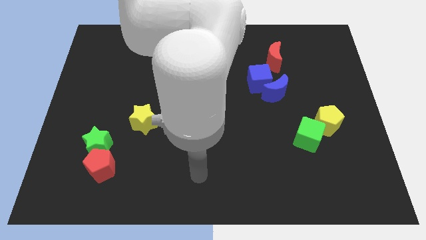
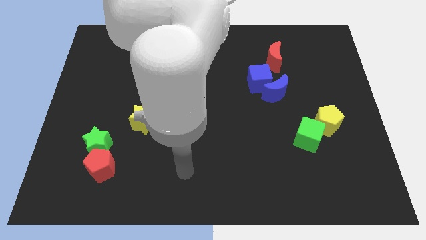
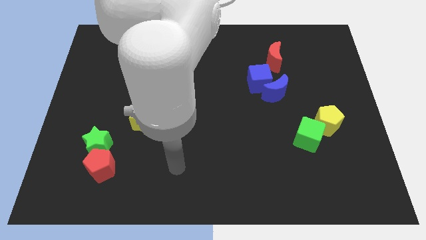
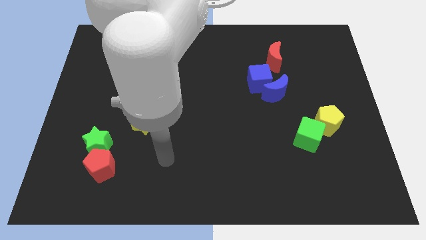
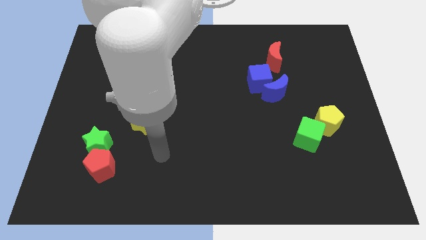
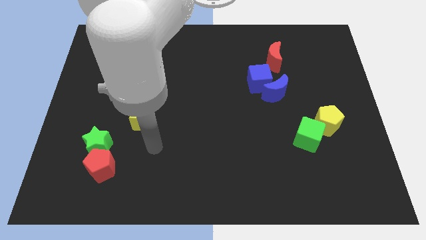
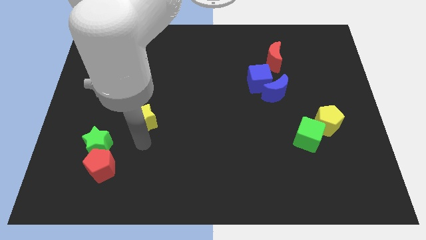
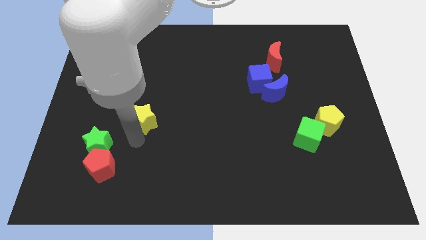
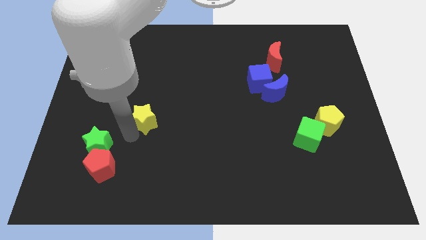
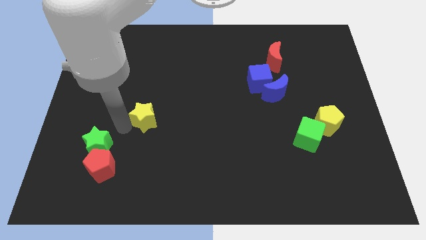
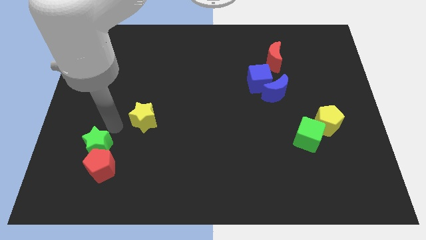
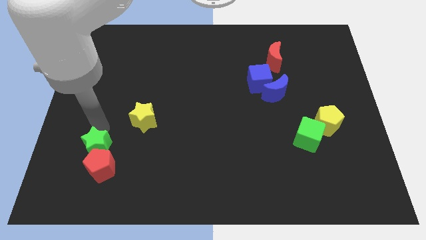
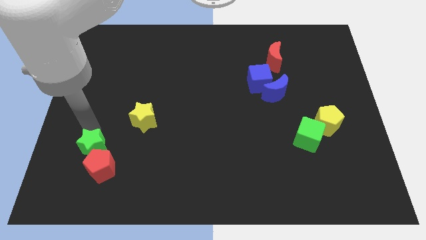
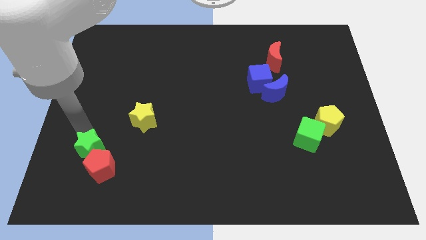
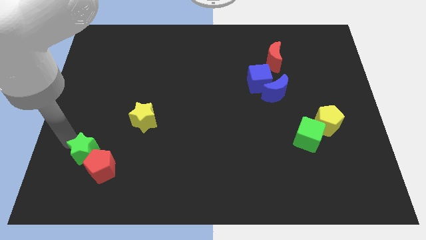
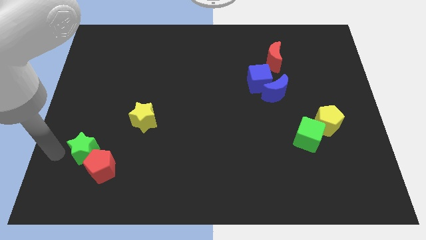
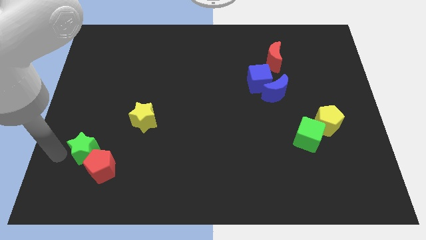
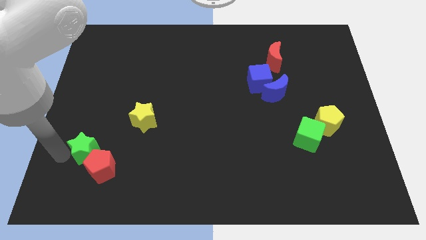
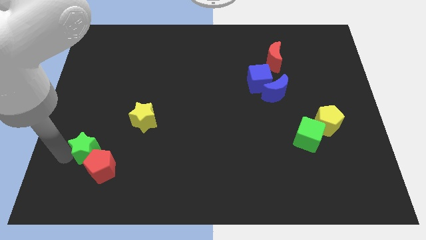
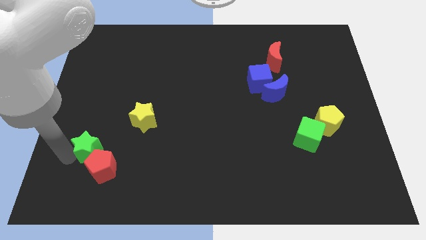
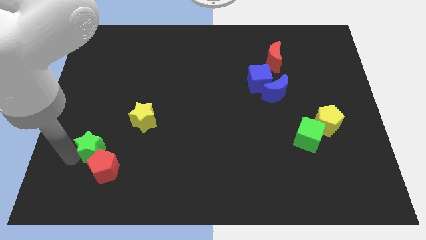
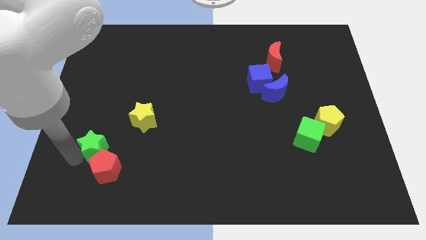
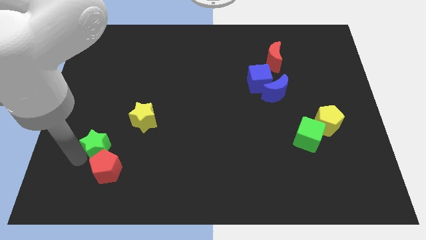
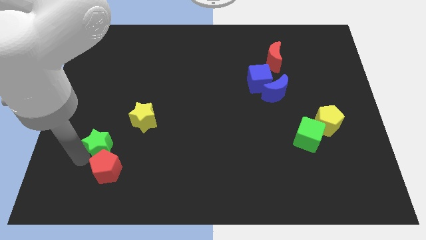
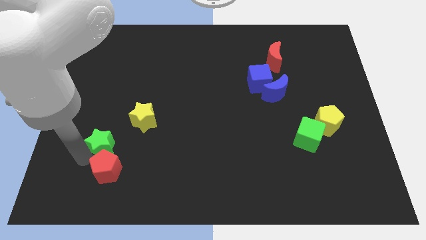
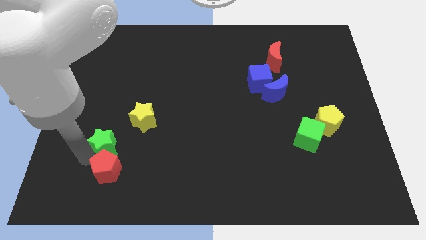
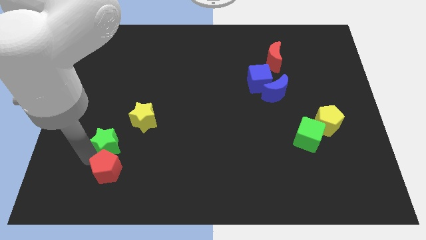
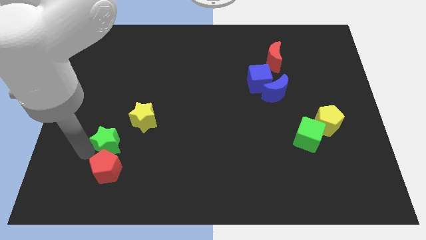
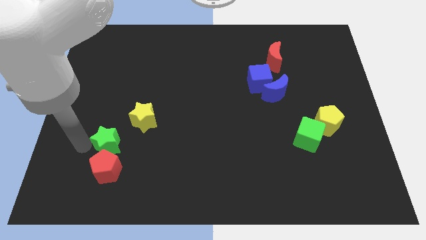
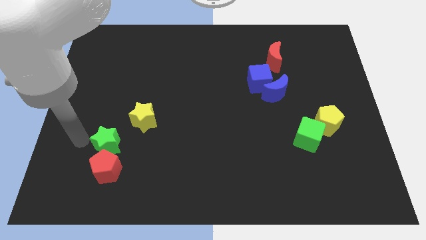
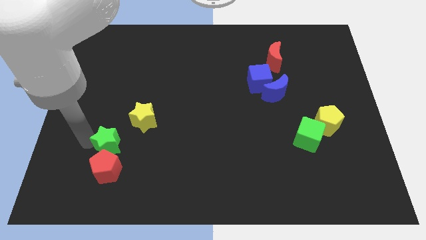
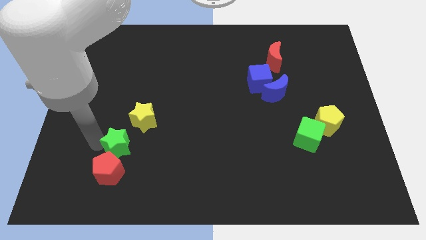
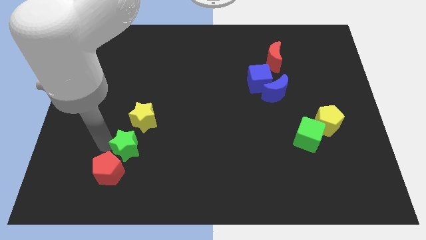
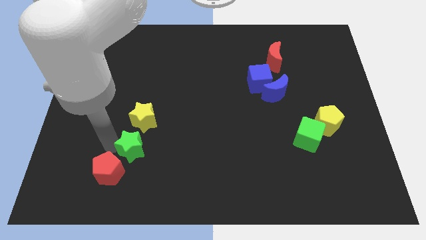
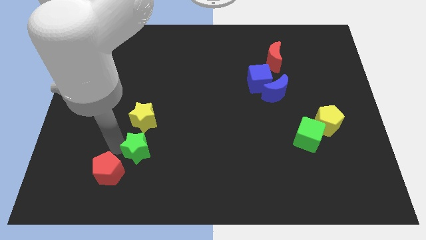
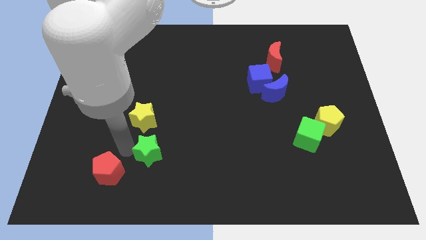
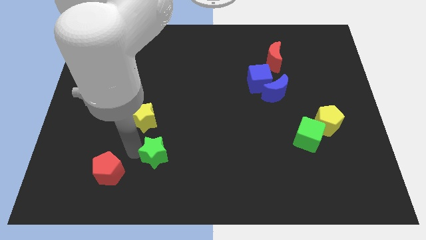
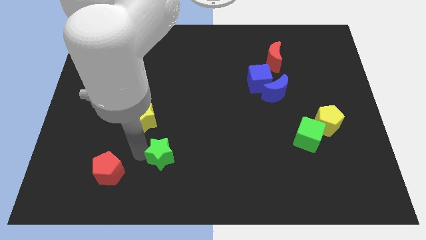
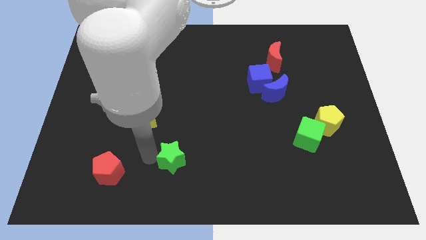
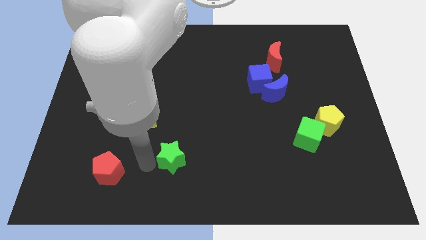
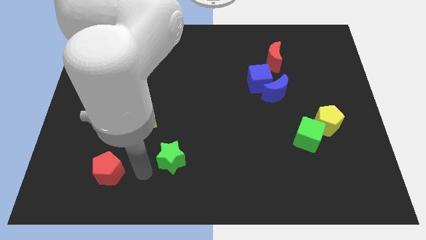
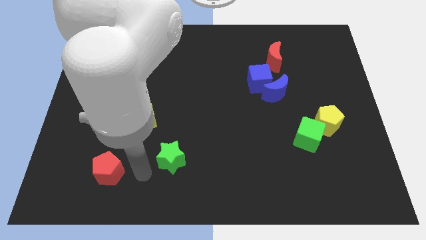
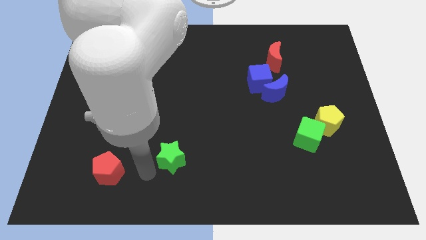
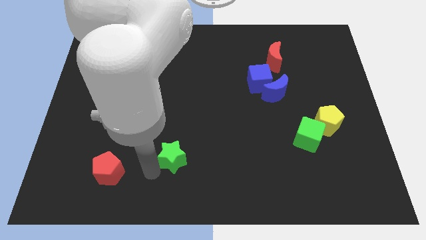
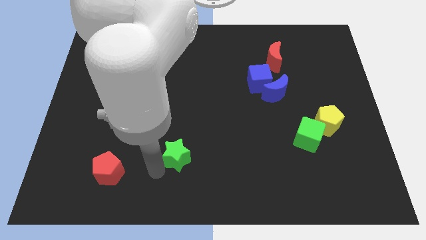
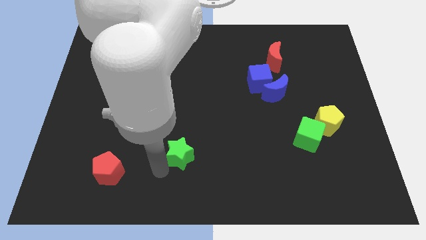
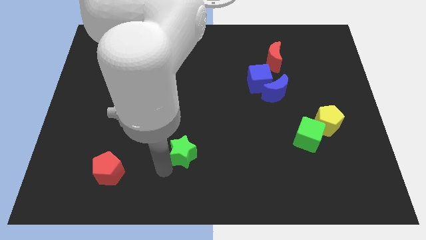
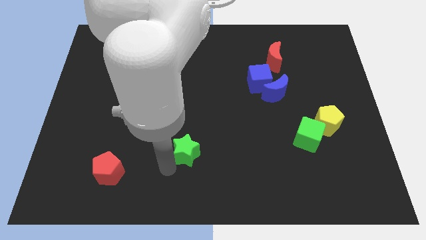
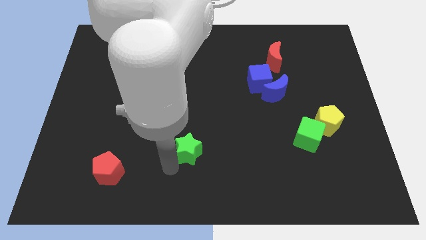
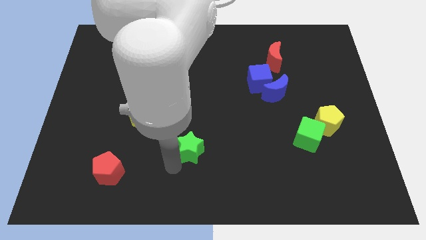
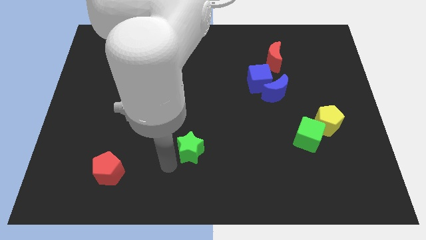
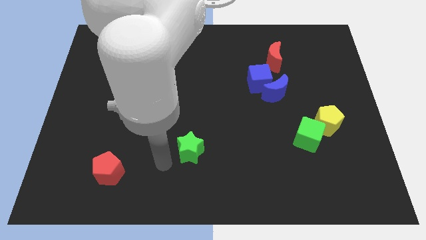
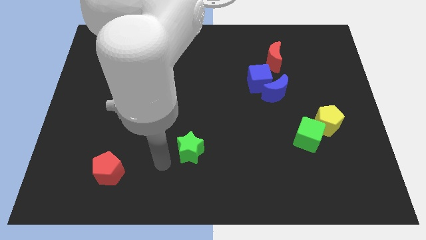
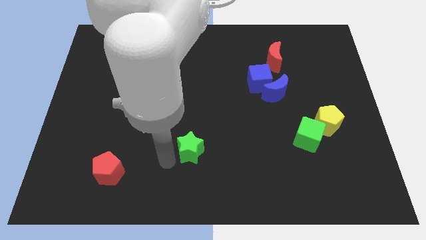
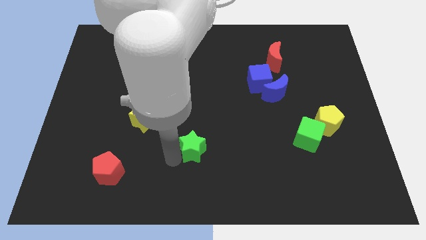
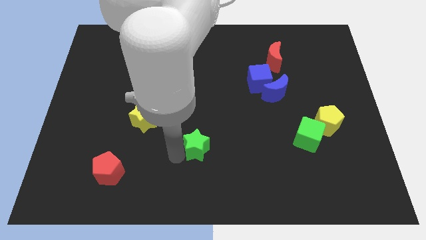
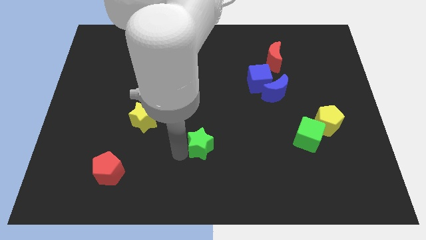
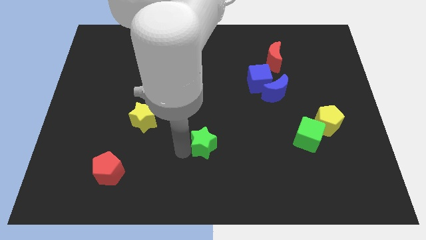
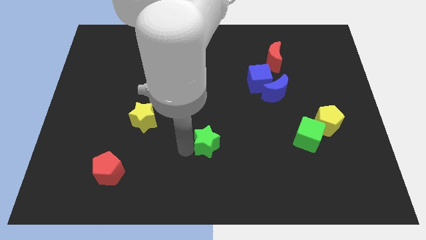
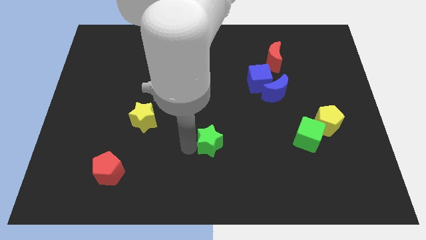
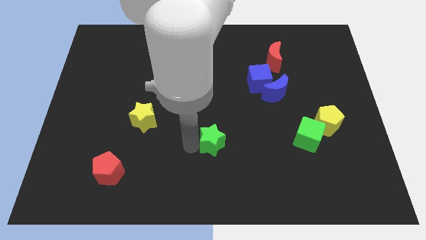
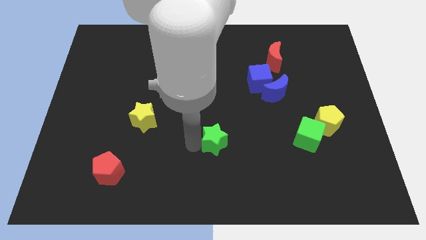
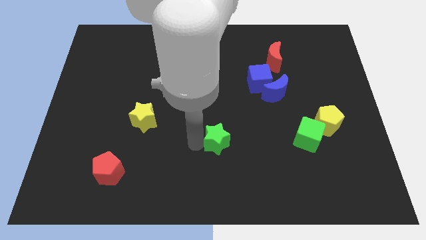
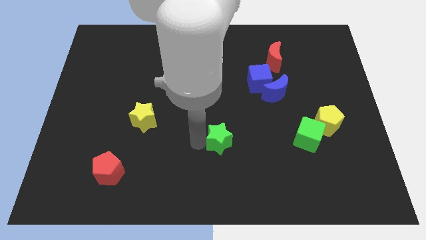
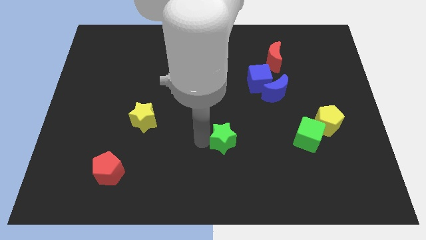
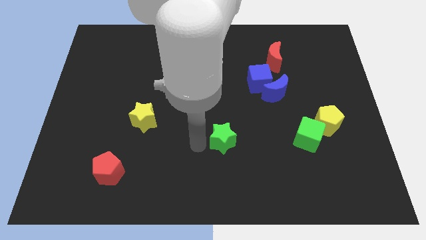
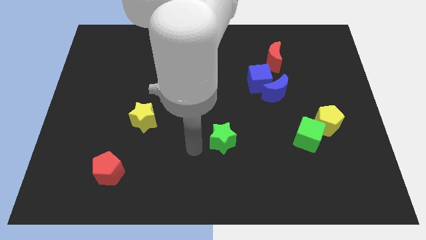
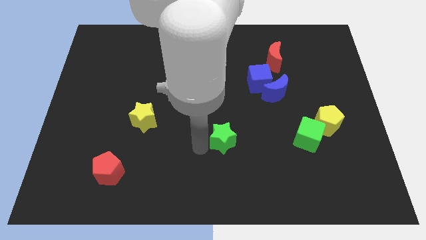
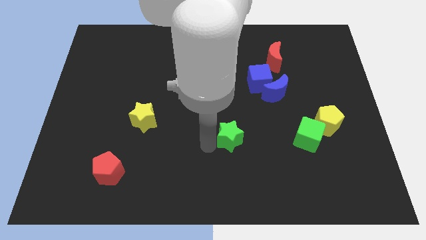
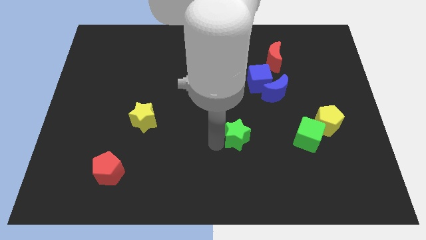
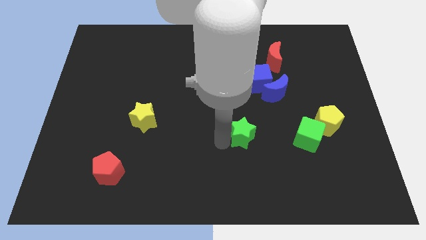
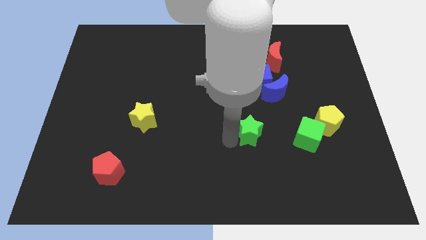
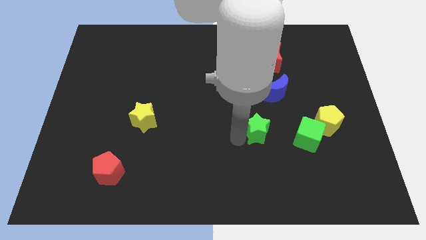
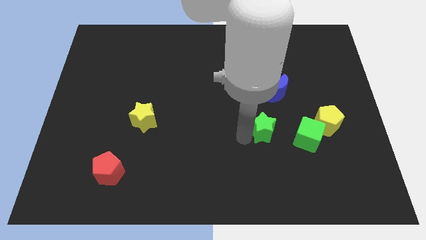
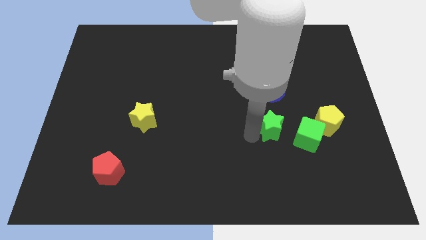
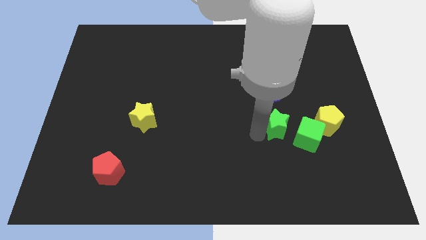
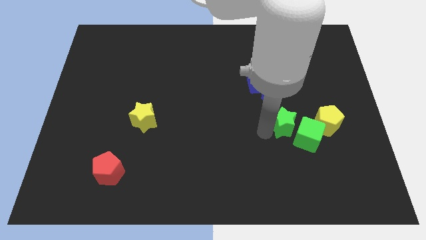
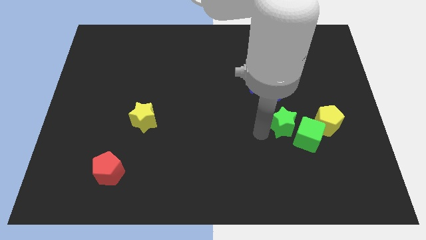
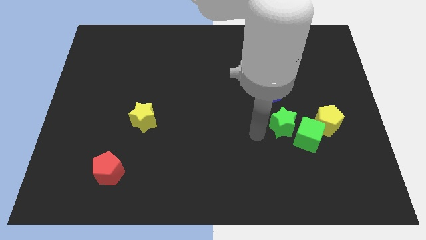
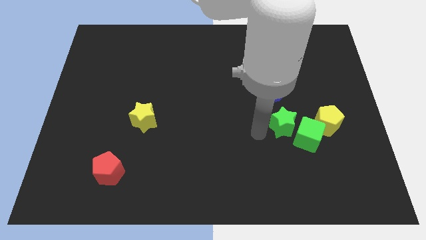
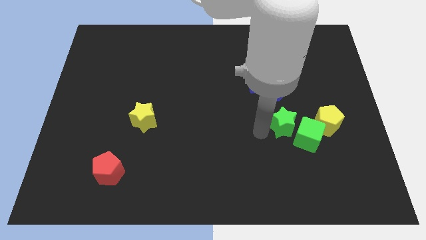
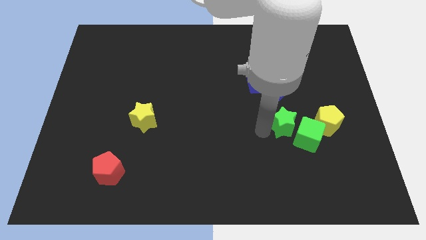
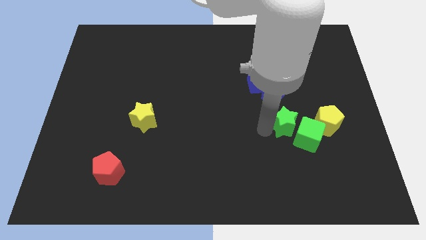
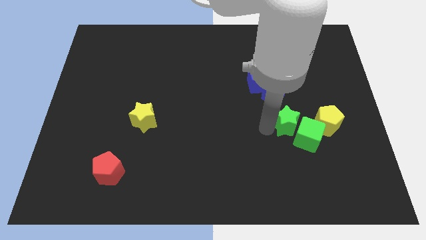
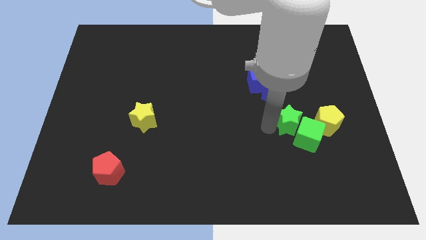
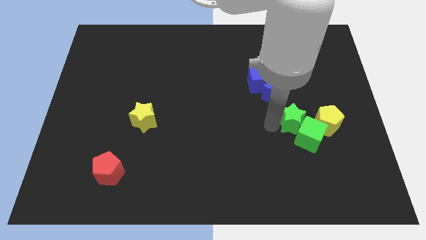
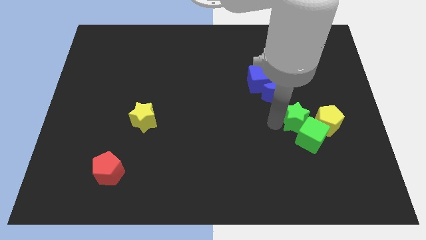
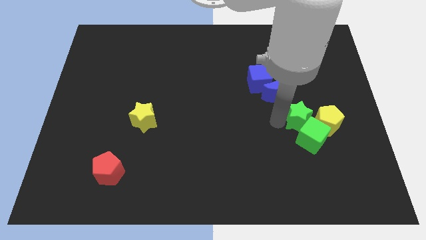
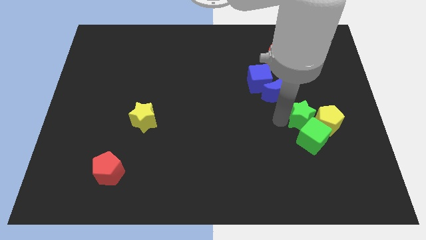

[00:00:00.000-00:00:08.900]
slide the green star close to the yellow pentagon
